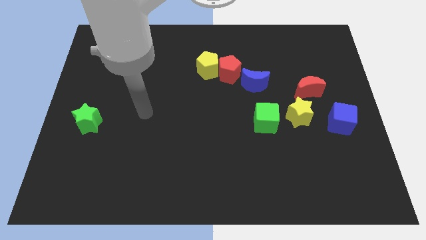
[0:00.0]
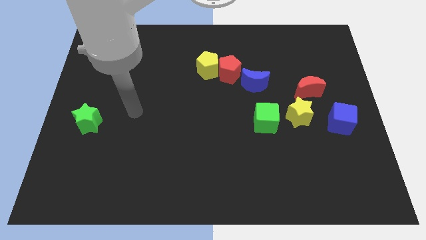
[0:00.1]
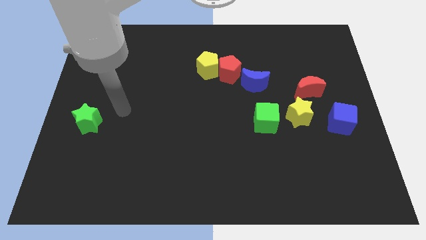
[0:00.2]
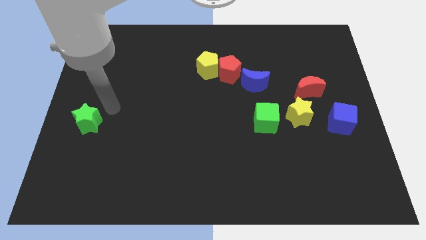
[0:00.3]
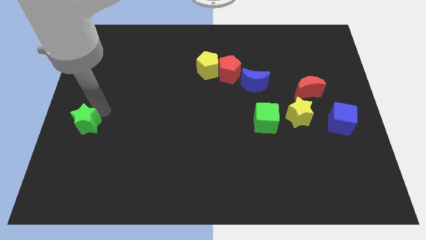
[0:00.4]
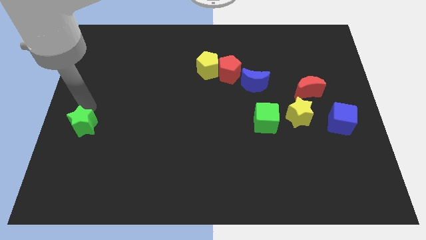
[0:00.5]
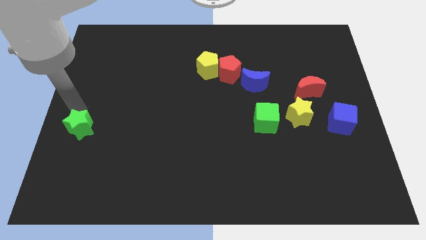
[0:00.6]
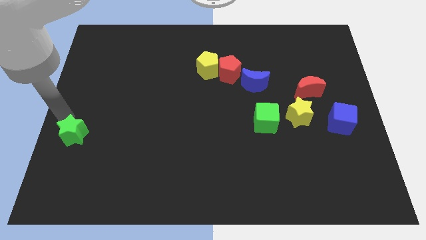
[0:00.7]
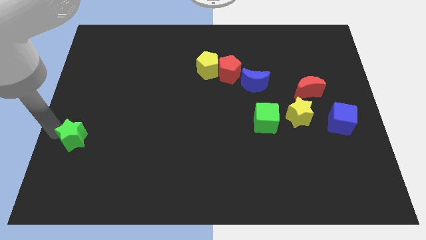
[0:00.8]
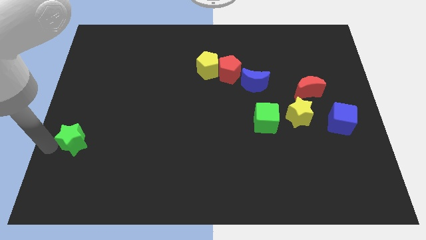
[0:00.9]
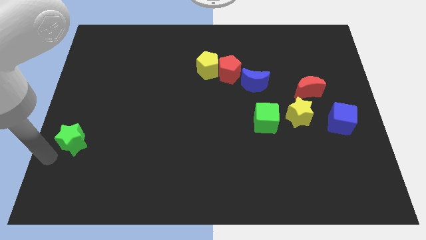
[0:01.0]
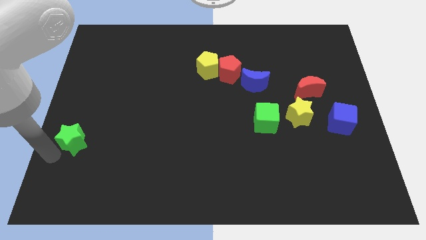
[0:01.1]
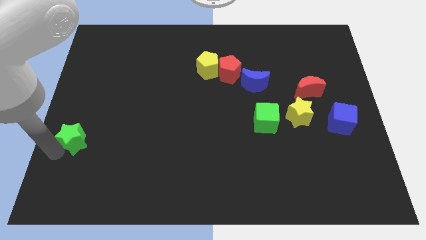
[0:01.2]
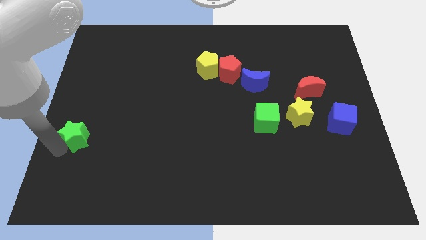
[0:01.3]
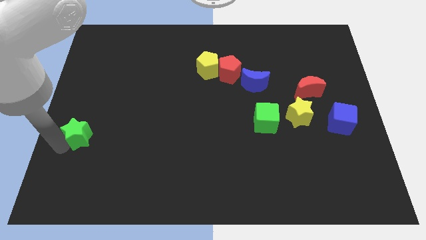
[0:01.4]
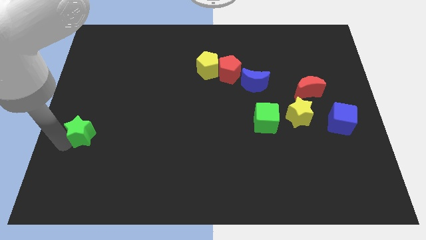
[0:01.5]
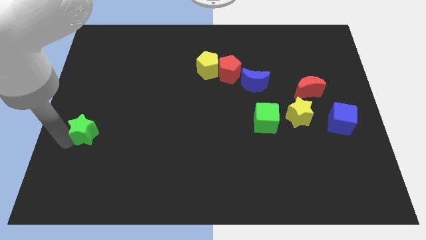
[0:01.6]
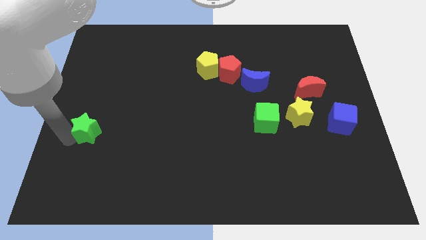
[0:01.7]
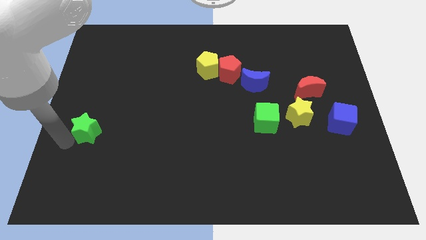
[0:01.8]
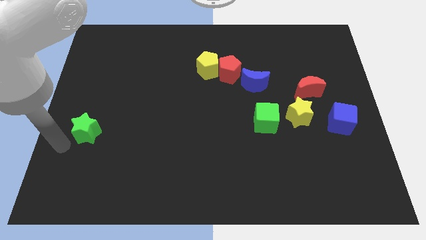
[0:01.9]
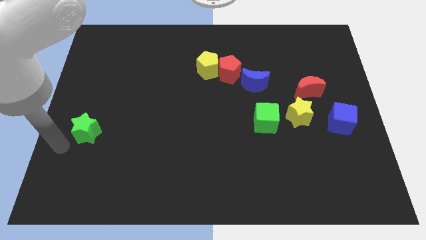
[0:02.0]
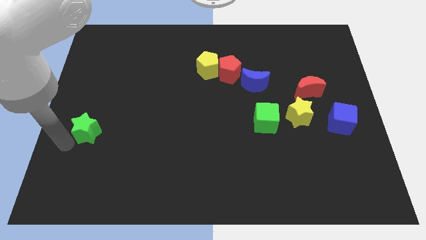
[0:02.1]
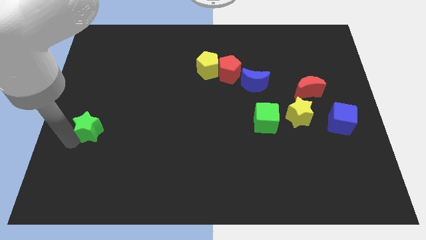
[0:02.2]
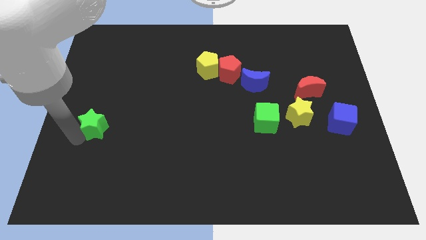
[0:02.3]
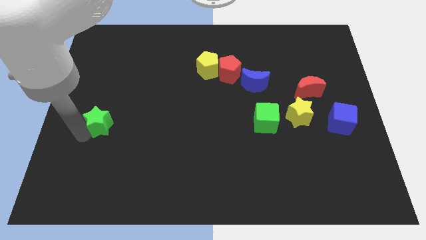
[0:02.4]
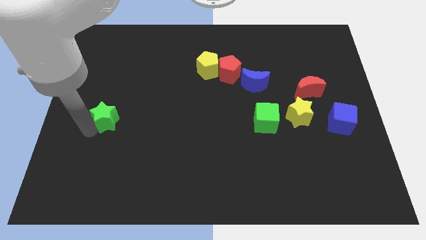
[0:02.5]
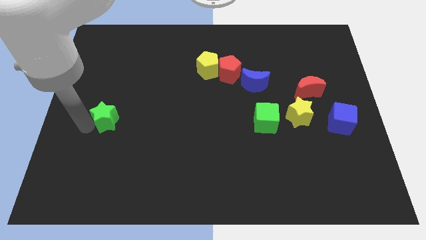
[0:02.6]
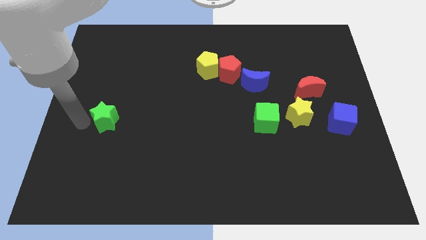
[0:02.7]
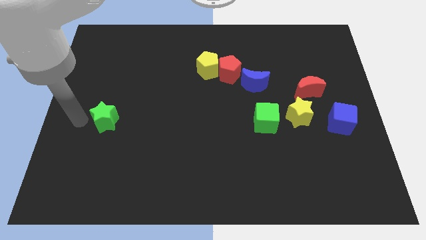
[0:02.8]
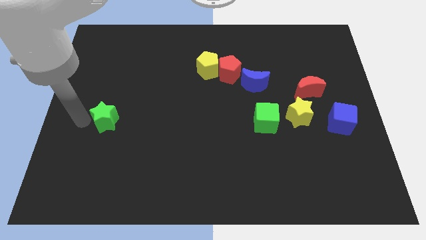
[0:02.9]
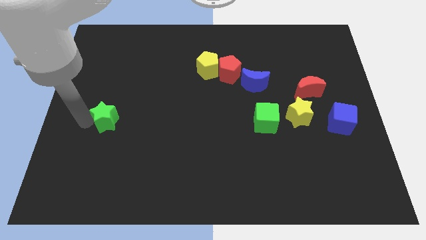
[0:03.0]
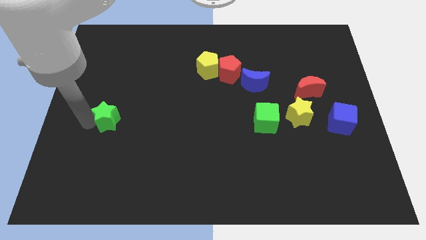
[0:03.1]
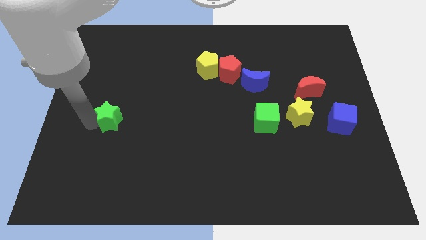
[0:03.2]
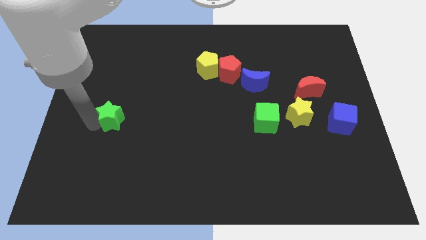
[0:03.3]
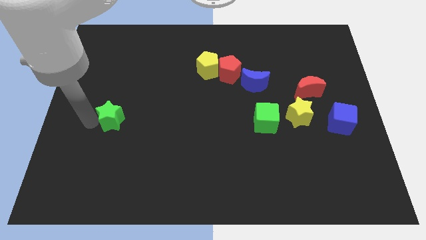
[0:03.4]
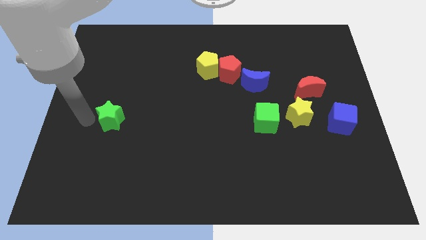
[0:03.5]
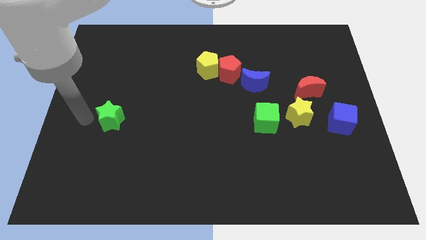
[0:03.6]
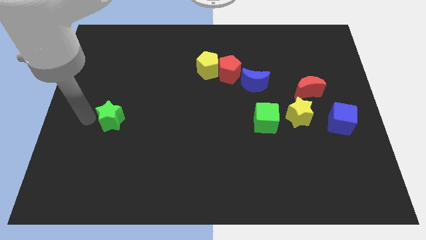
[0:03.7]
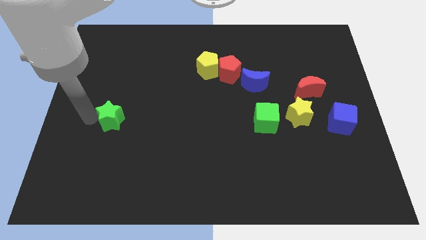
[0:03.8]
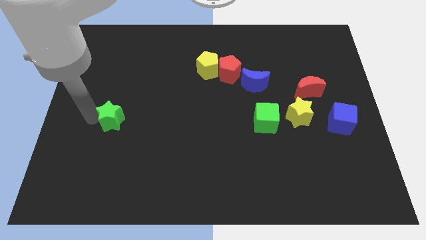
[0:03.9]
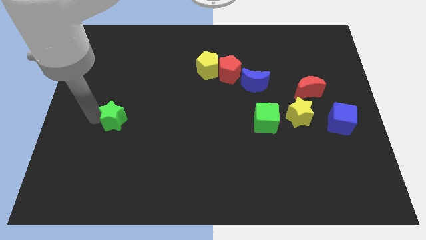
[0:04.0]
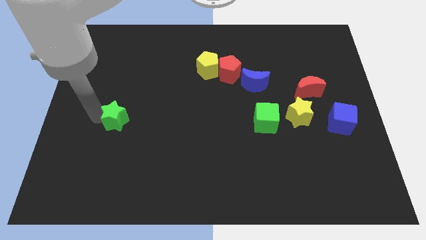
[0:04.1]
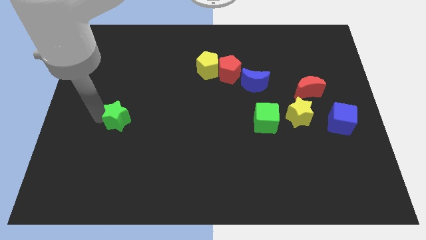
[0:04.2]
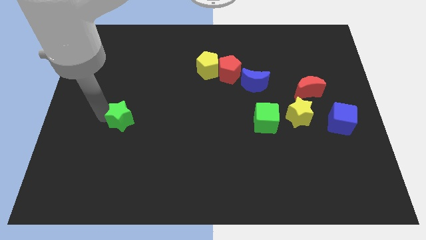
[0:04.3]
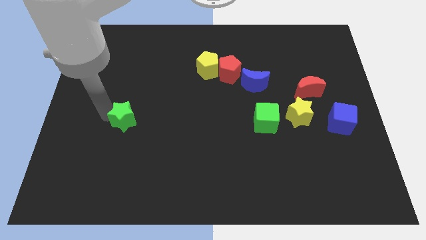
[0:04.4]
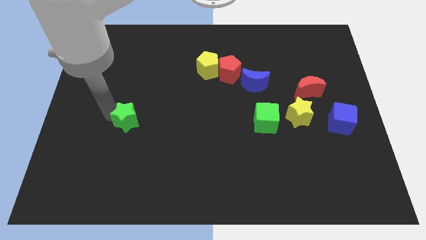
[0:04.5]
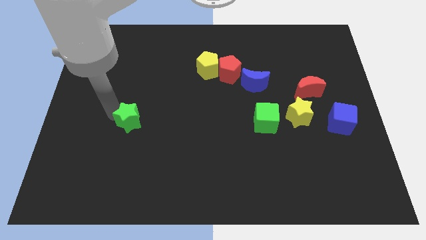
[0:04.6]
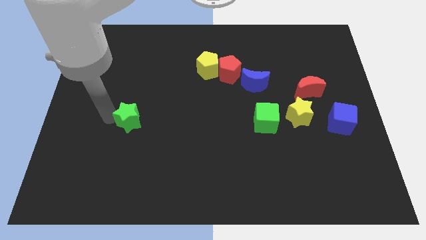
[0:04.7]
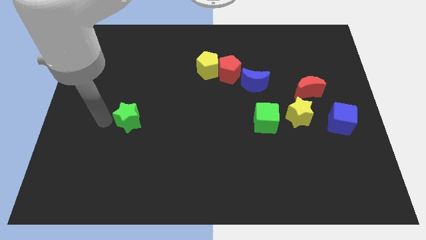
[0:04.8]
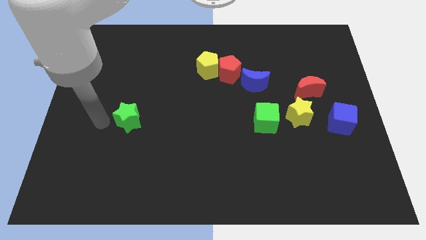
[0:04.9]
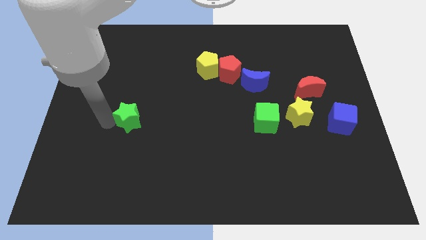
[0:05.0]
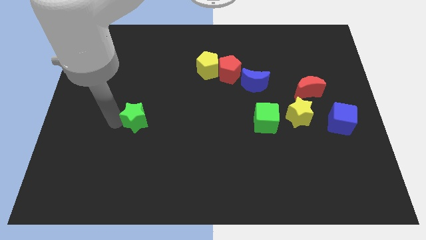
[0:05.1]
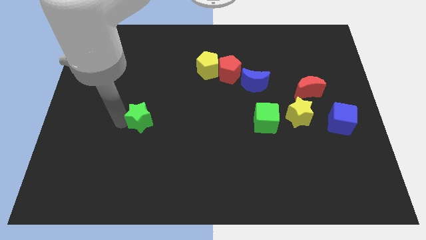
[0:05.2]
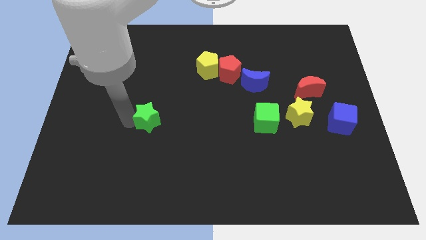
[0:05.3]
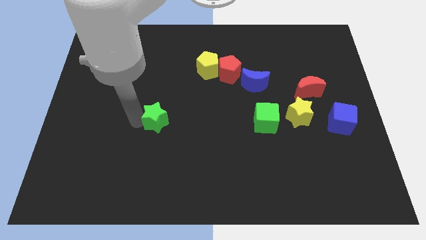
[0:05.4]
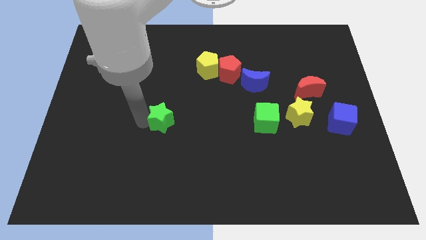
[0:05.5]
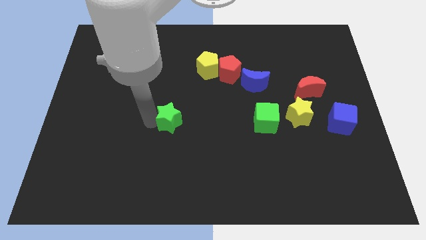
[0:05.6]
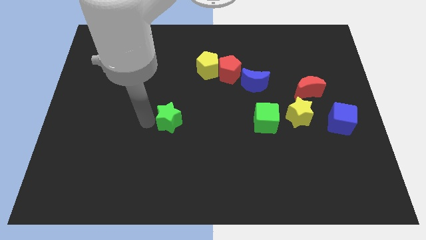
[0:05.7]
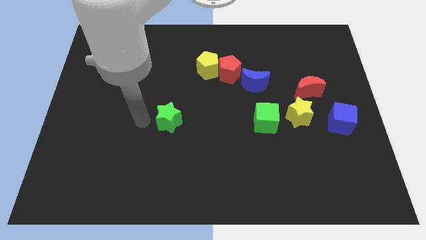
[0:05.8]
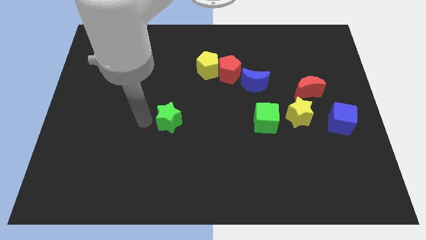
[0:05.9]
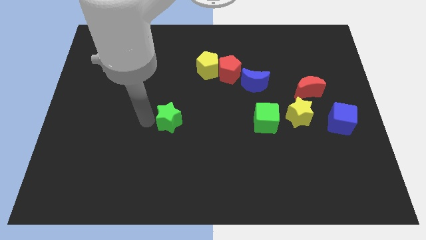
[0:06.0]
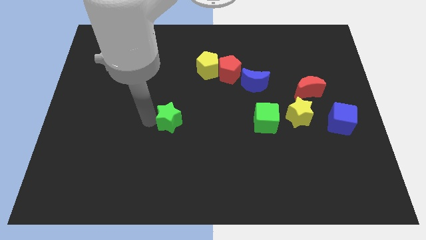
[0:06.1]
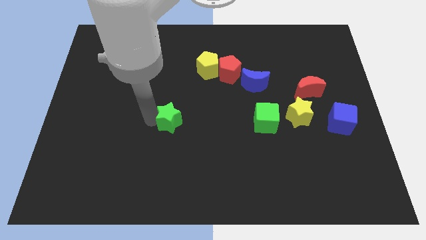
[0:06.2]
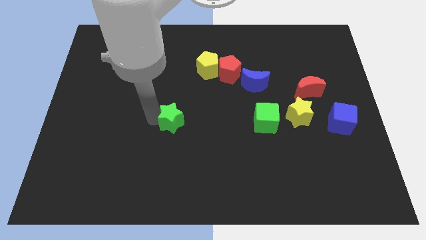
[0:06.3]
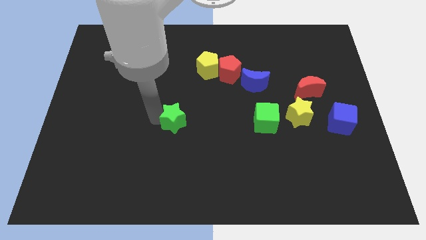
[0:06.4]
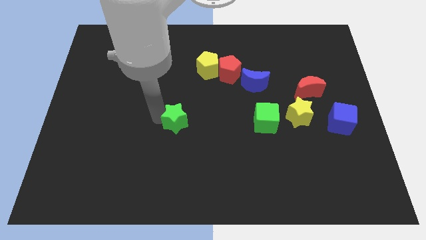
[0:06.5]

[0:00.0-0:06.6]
push the green star to the right

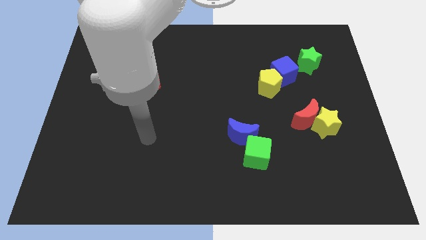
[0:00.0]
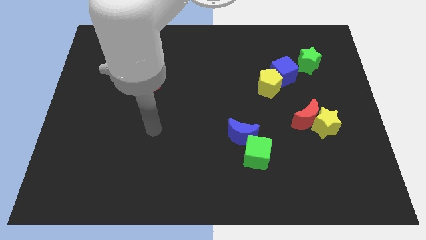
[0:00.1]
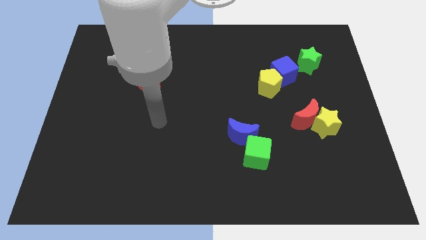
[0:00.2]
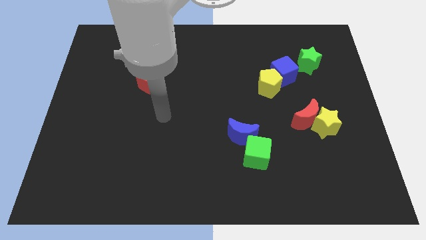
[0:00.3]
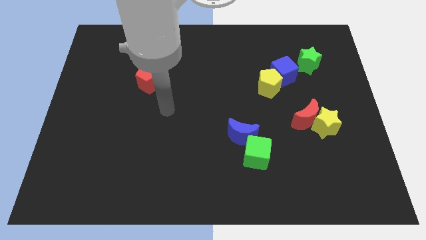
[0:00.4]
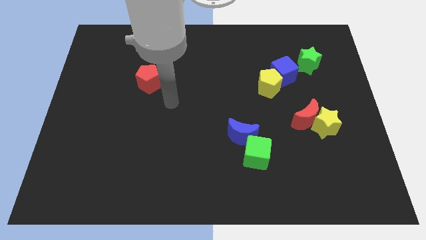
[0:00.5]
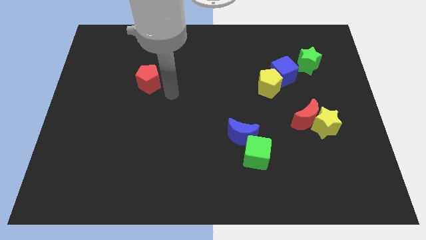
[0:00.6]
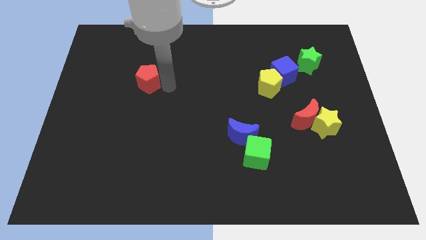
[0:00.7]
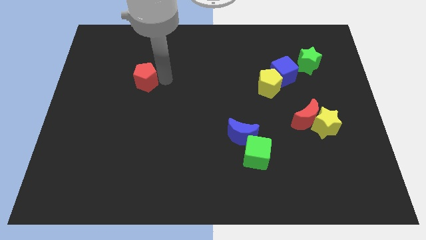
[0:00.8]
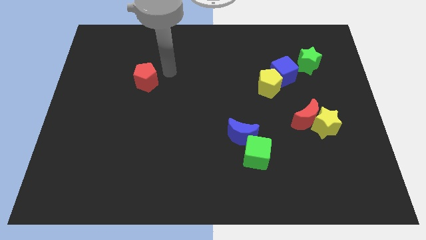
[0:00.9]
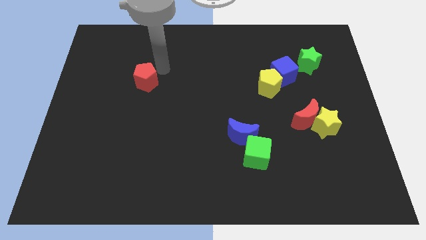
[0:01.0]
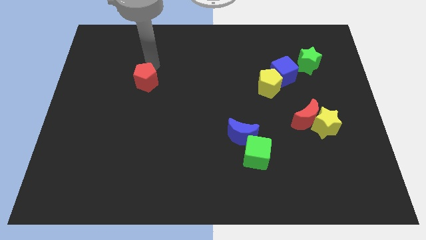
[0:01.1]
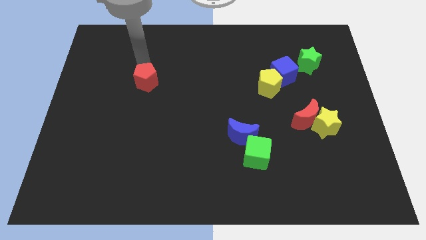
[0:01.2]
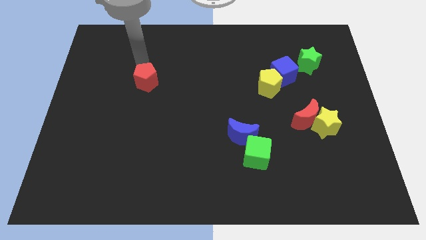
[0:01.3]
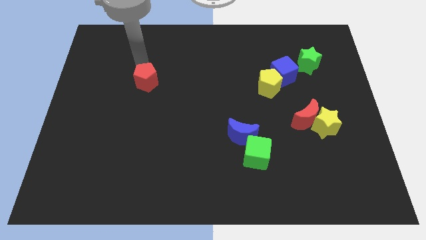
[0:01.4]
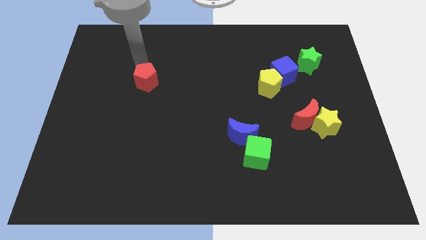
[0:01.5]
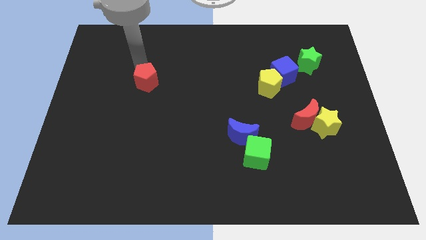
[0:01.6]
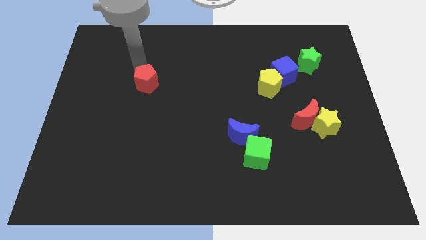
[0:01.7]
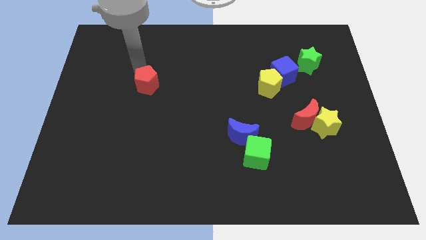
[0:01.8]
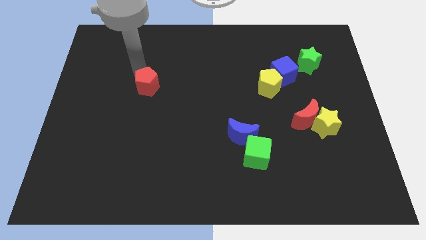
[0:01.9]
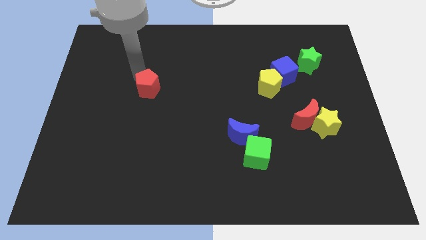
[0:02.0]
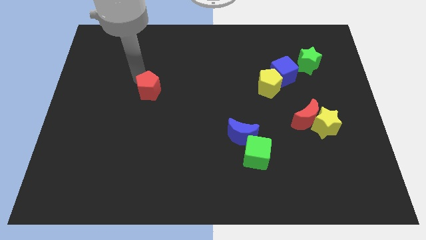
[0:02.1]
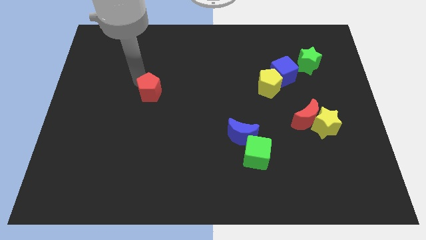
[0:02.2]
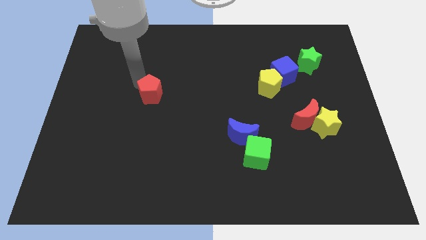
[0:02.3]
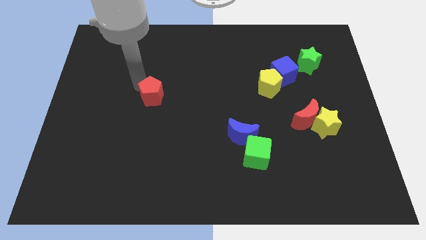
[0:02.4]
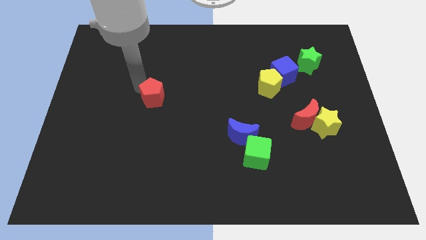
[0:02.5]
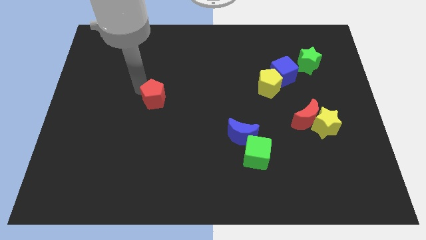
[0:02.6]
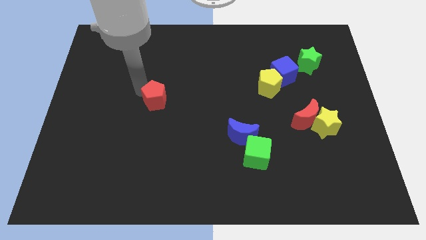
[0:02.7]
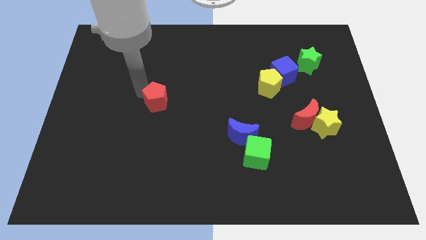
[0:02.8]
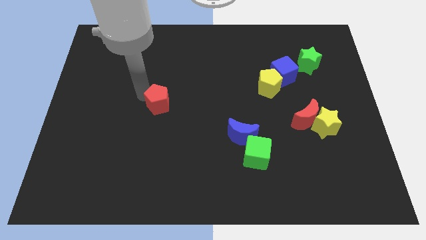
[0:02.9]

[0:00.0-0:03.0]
slightly slide the red pentagon downwards and right diagonally
